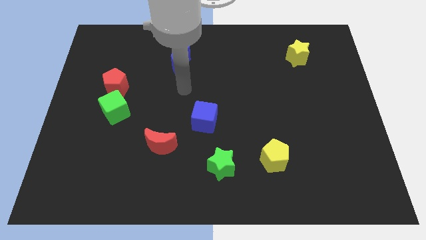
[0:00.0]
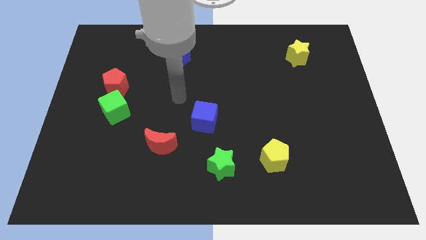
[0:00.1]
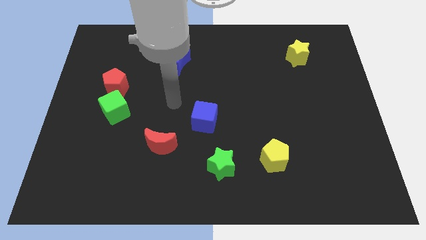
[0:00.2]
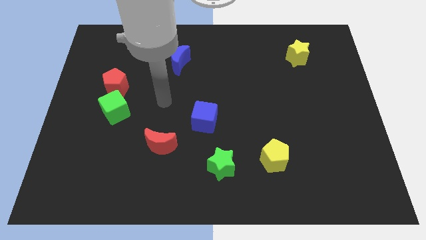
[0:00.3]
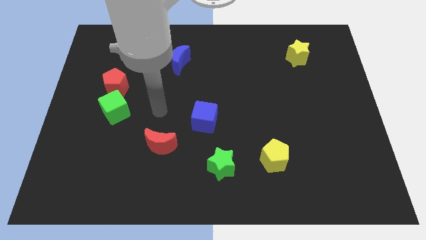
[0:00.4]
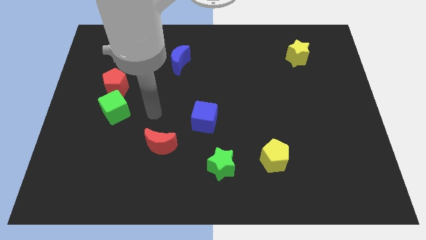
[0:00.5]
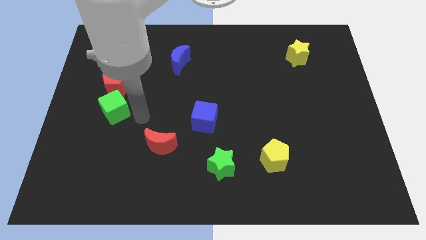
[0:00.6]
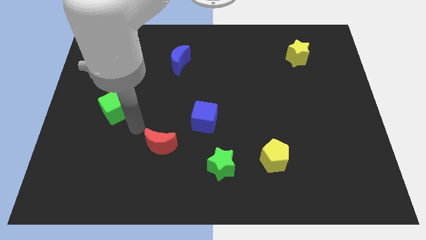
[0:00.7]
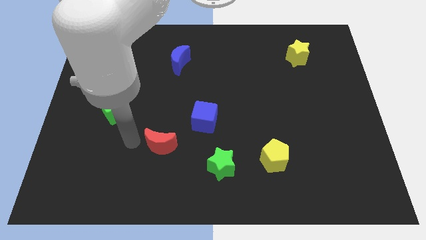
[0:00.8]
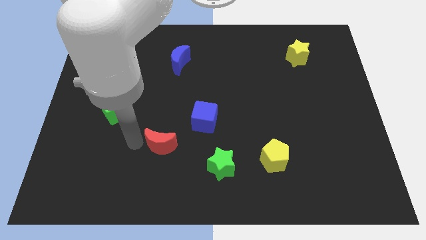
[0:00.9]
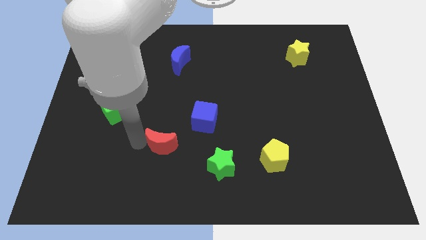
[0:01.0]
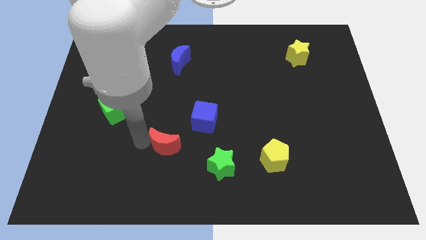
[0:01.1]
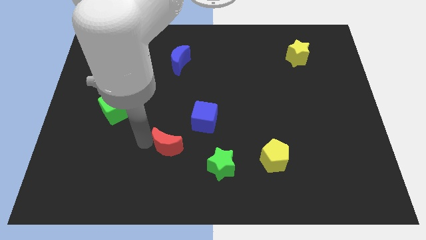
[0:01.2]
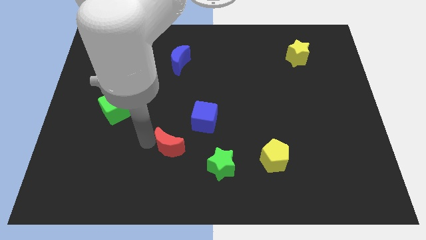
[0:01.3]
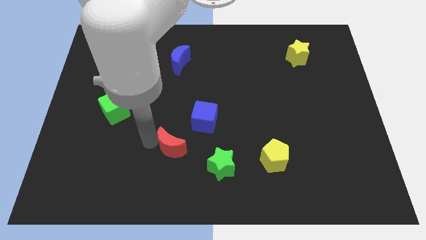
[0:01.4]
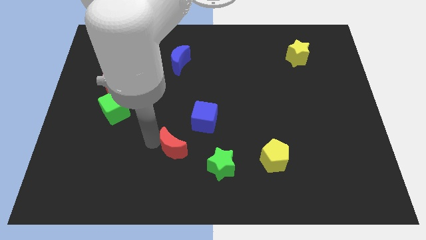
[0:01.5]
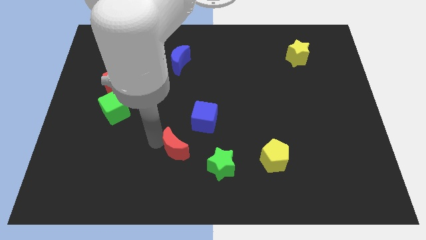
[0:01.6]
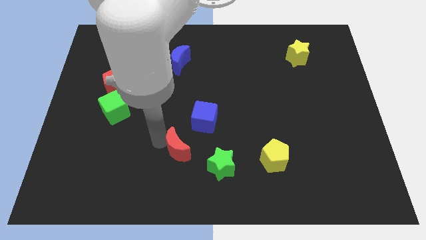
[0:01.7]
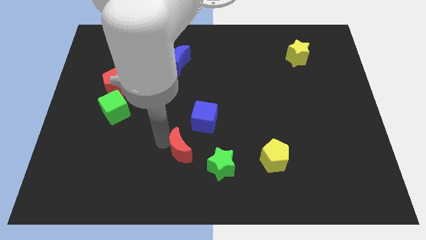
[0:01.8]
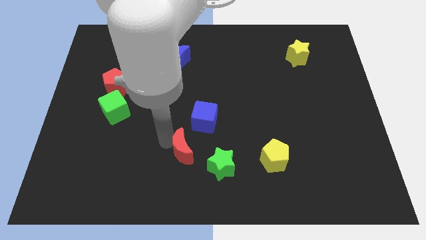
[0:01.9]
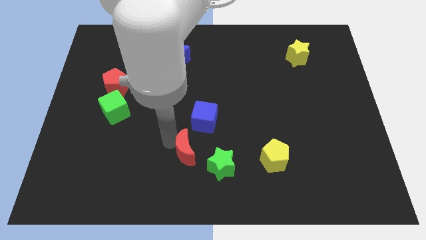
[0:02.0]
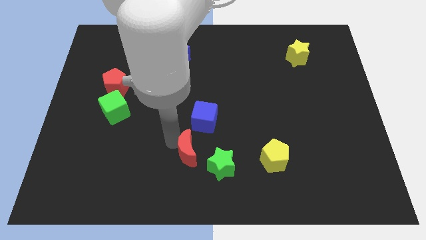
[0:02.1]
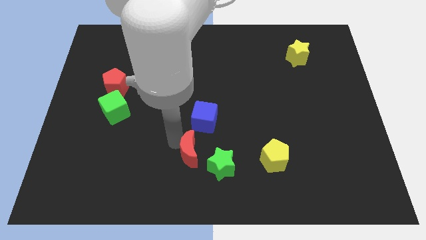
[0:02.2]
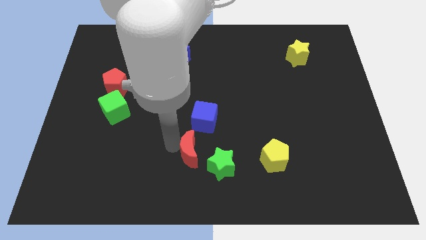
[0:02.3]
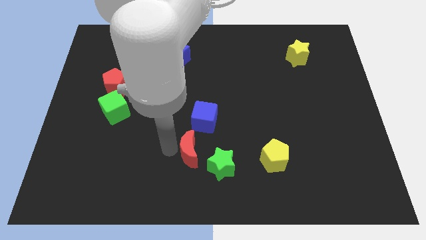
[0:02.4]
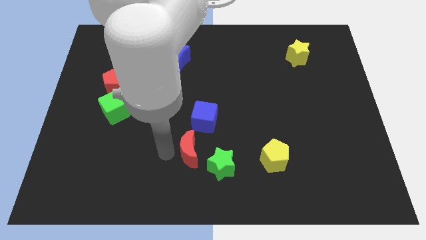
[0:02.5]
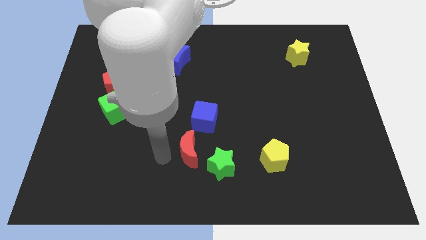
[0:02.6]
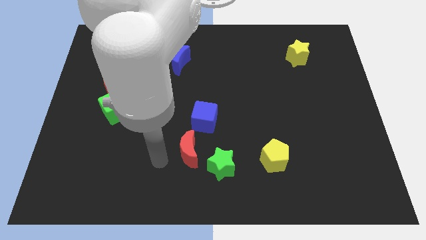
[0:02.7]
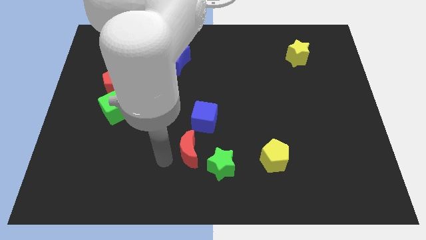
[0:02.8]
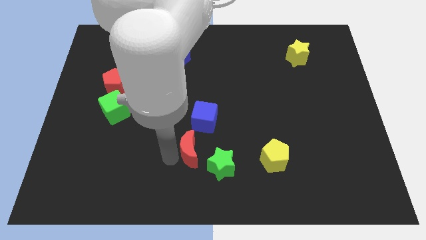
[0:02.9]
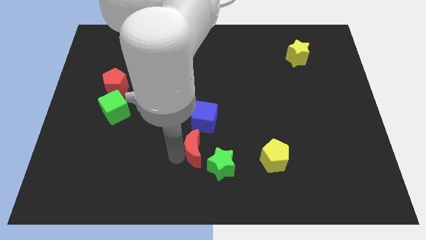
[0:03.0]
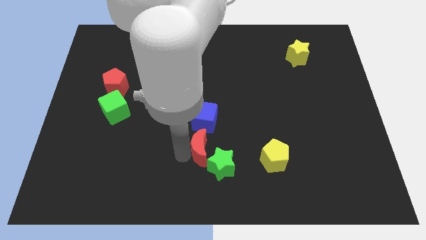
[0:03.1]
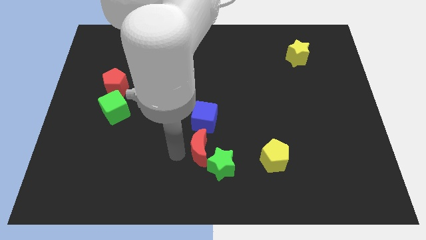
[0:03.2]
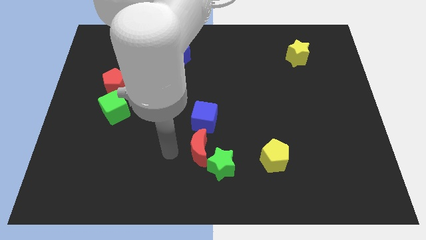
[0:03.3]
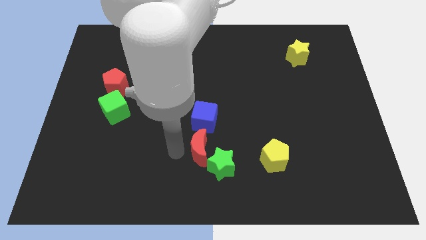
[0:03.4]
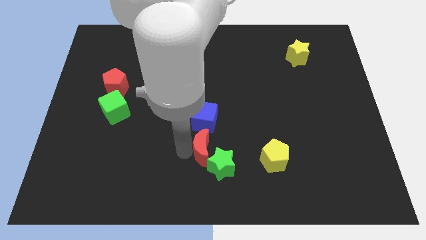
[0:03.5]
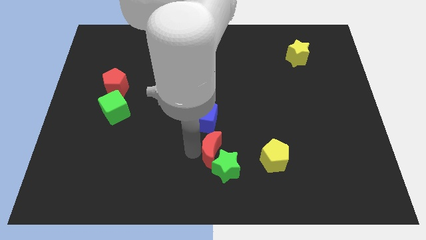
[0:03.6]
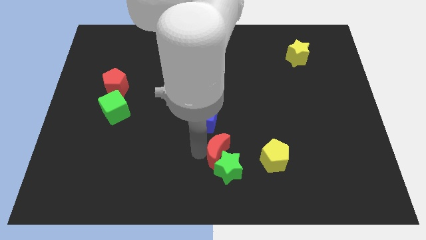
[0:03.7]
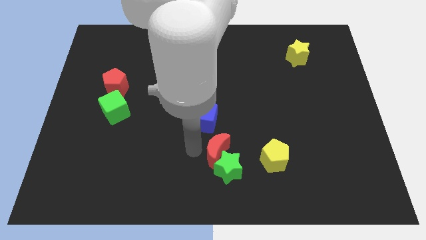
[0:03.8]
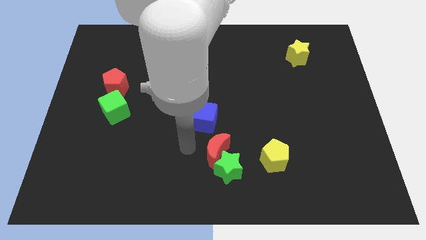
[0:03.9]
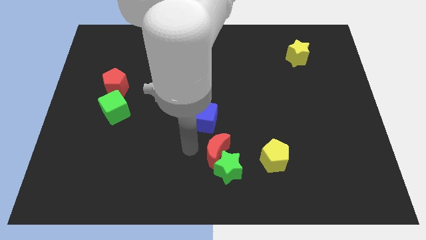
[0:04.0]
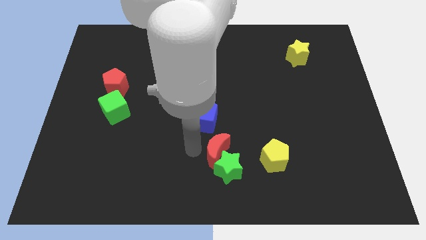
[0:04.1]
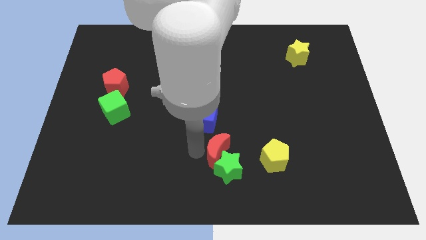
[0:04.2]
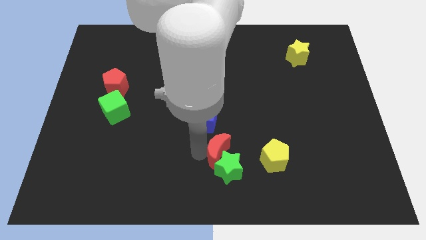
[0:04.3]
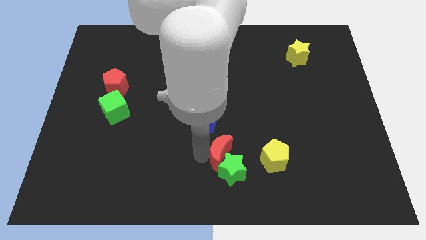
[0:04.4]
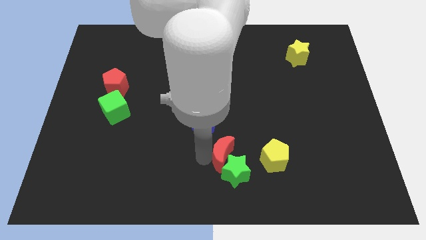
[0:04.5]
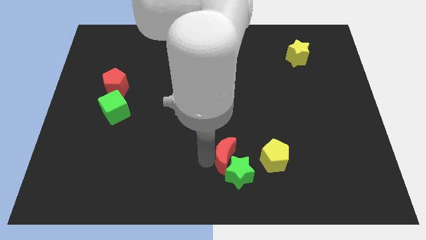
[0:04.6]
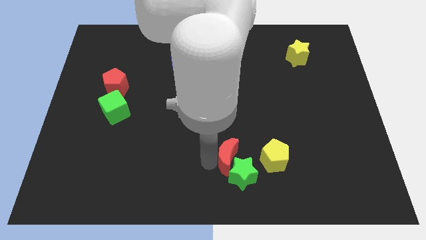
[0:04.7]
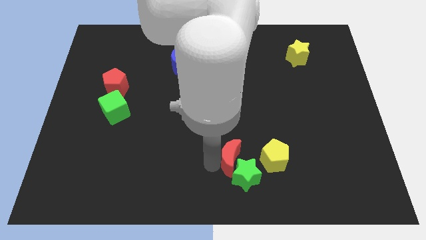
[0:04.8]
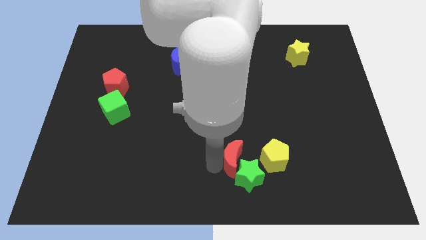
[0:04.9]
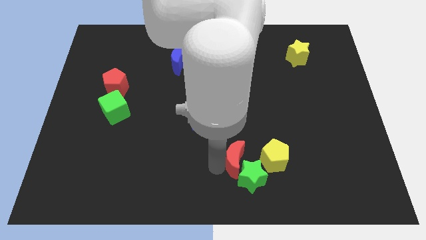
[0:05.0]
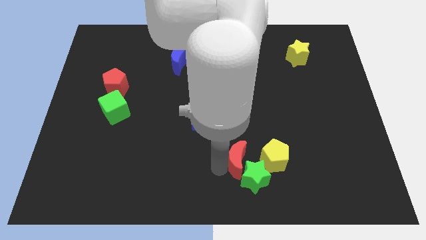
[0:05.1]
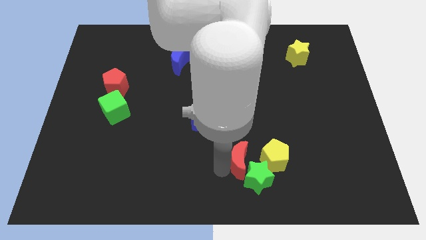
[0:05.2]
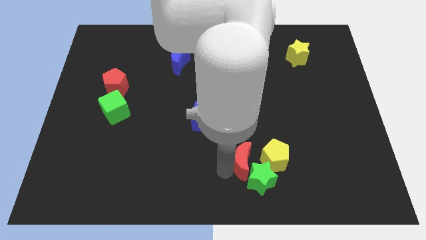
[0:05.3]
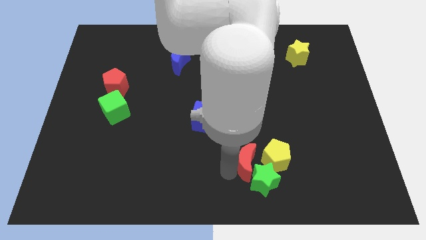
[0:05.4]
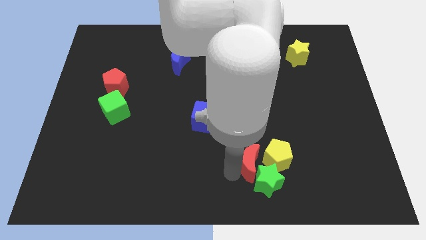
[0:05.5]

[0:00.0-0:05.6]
slide the red moon next to the yellow pentagon

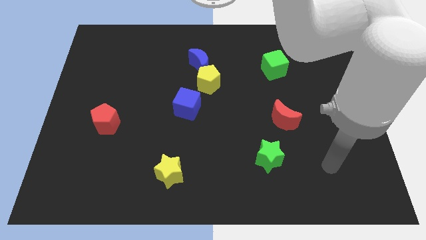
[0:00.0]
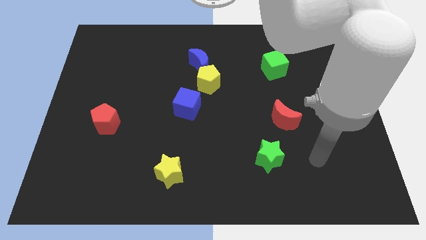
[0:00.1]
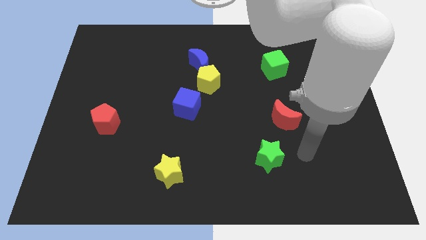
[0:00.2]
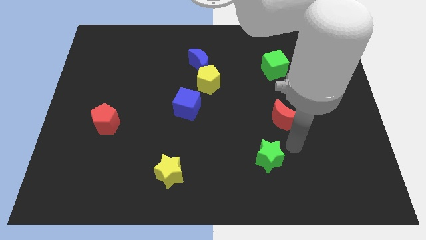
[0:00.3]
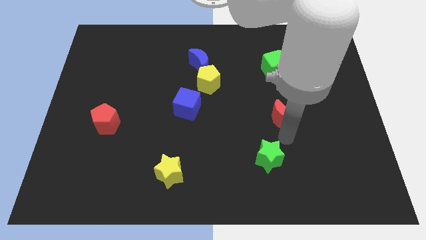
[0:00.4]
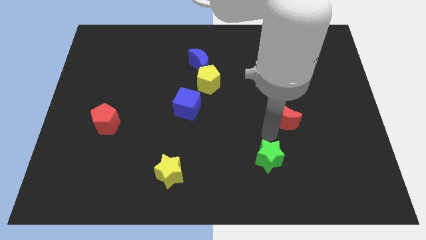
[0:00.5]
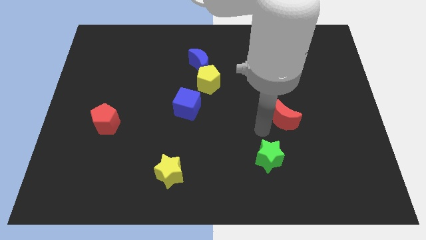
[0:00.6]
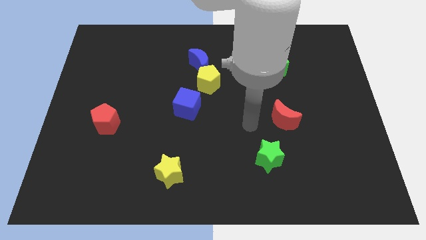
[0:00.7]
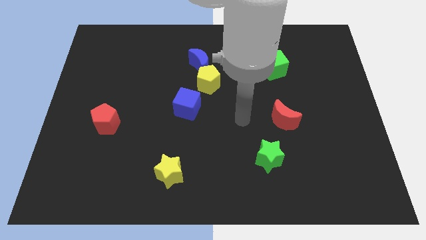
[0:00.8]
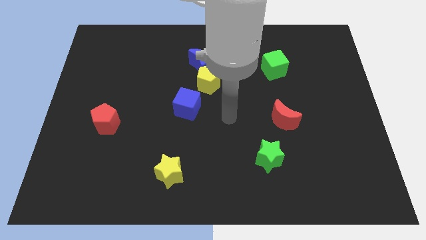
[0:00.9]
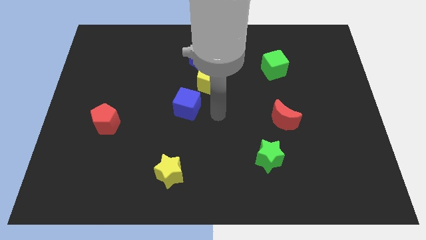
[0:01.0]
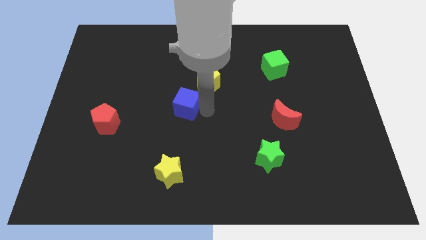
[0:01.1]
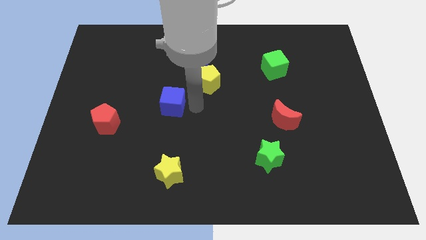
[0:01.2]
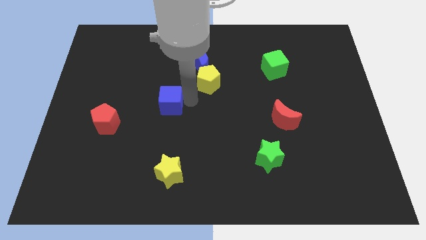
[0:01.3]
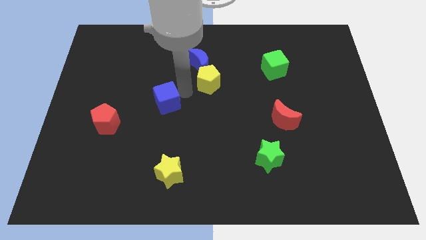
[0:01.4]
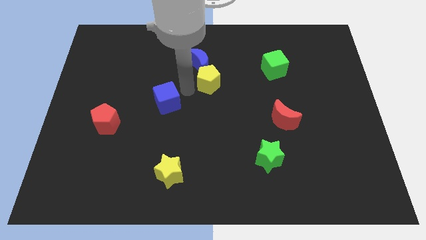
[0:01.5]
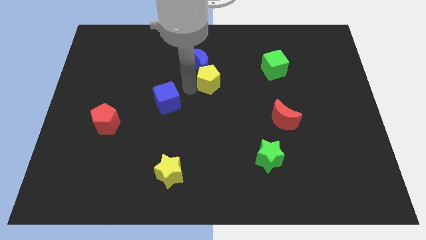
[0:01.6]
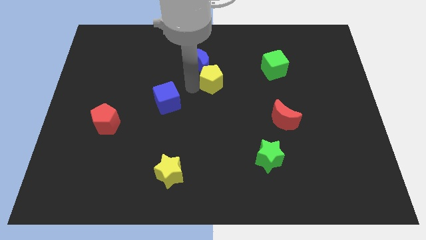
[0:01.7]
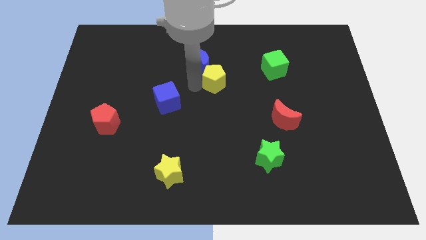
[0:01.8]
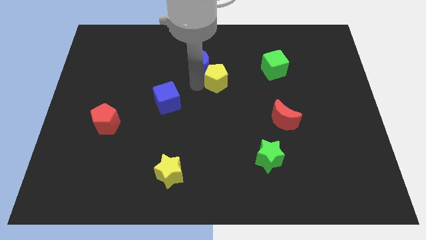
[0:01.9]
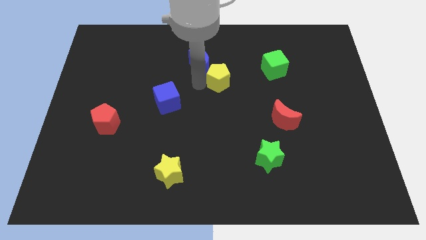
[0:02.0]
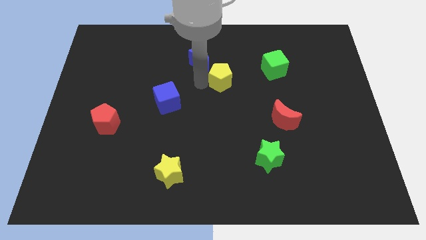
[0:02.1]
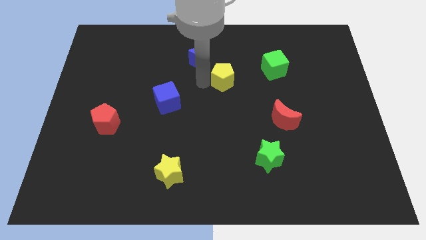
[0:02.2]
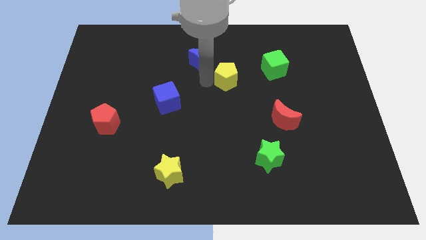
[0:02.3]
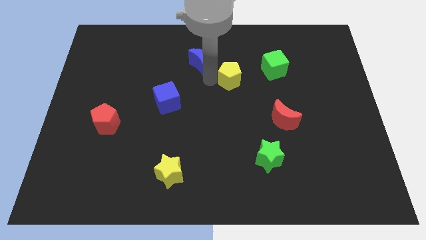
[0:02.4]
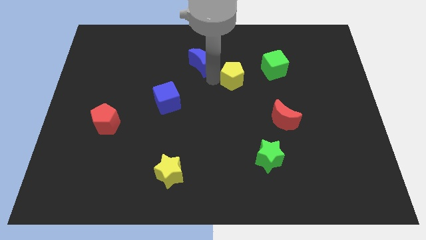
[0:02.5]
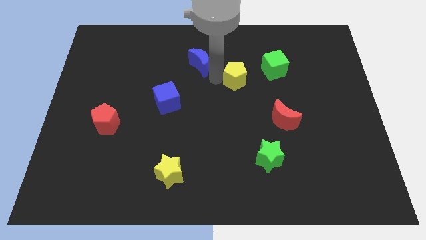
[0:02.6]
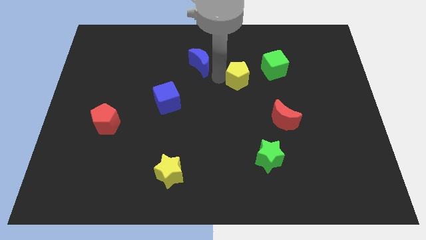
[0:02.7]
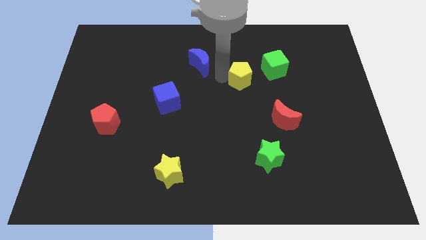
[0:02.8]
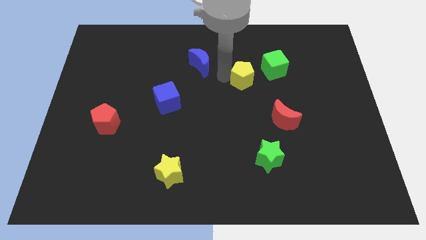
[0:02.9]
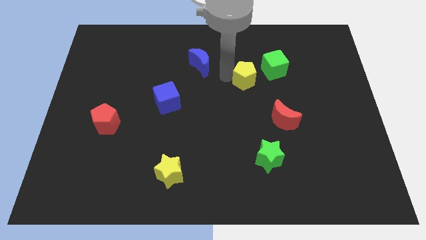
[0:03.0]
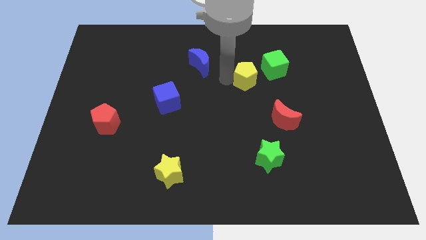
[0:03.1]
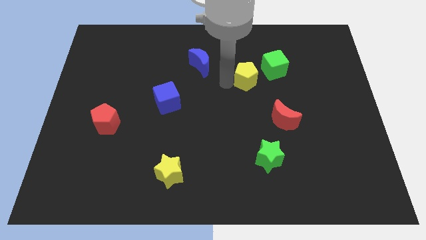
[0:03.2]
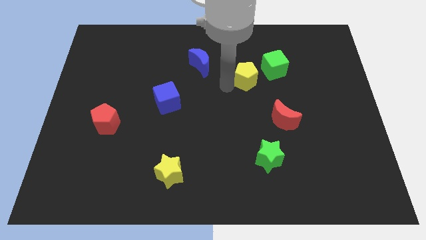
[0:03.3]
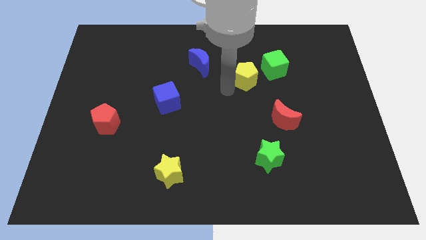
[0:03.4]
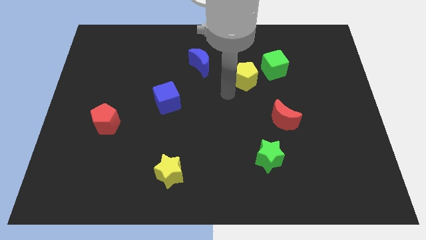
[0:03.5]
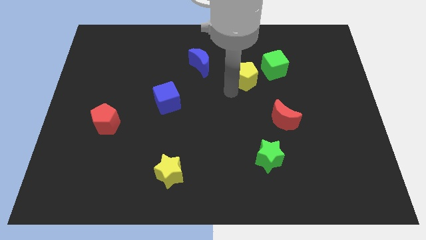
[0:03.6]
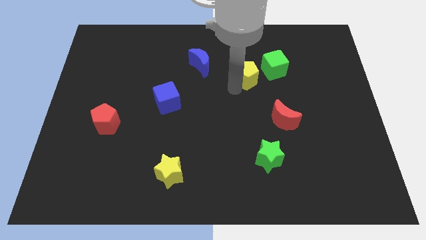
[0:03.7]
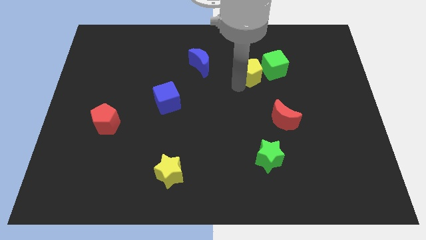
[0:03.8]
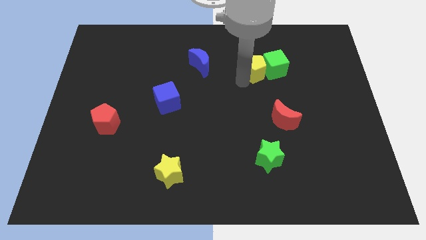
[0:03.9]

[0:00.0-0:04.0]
slide the yellow pentagon towards the green cube
